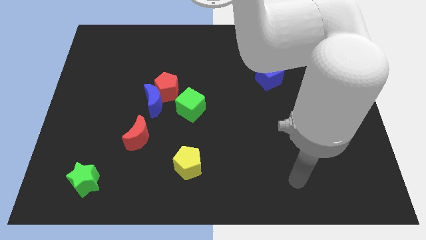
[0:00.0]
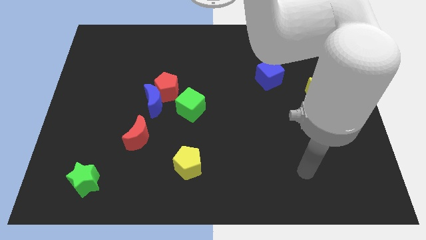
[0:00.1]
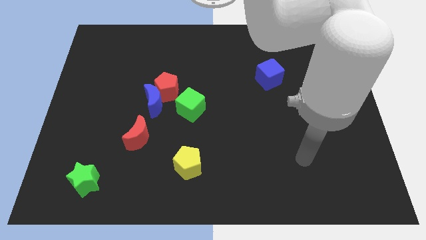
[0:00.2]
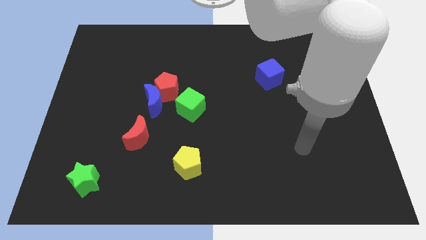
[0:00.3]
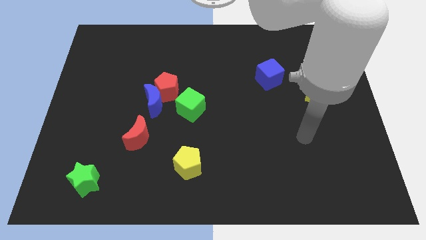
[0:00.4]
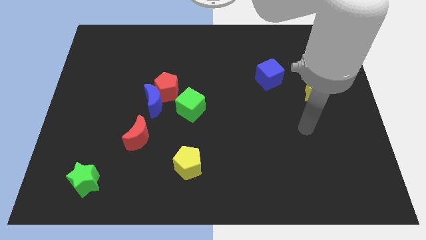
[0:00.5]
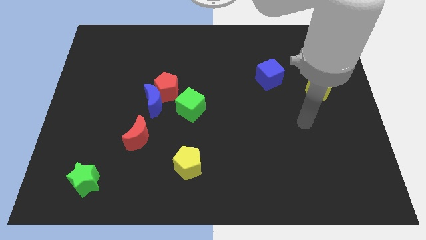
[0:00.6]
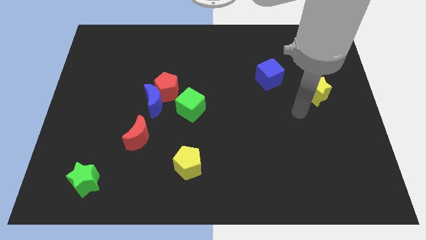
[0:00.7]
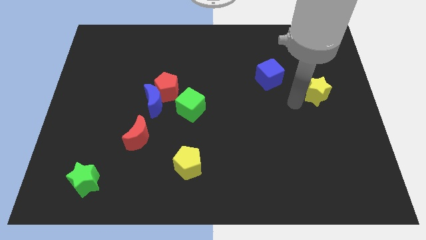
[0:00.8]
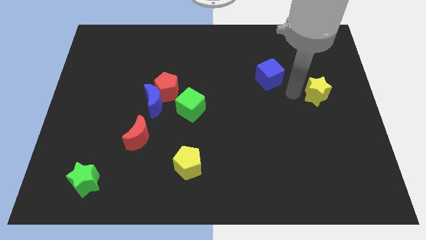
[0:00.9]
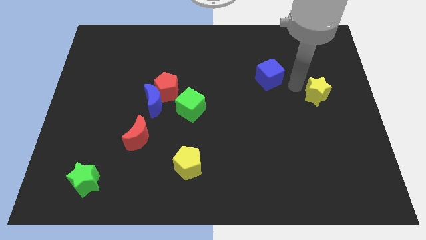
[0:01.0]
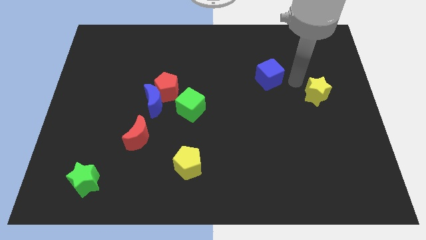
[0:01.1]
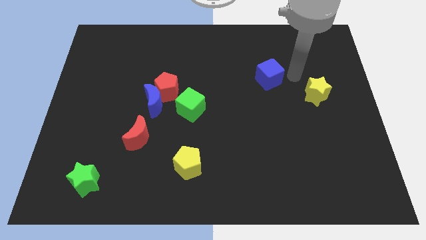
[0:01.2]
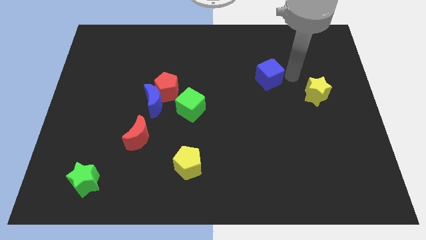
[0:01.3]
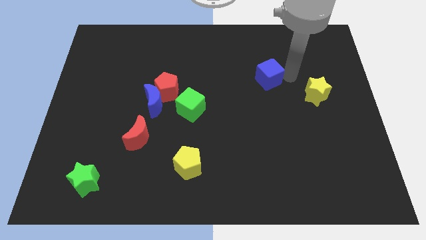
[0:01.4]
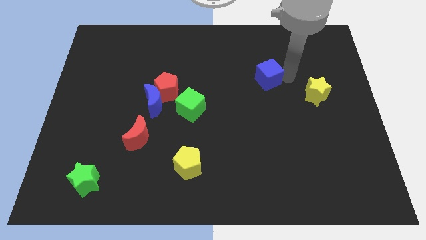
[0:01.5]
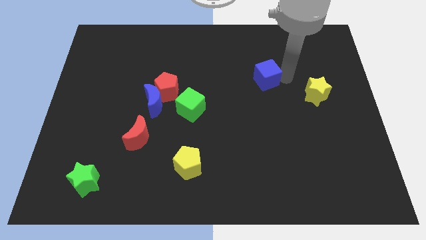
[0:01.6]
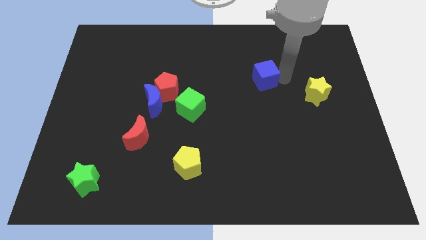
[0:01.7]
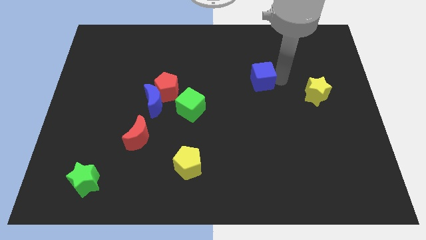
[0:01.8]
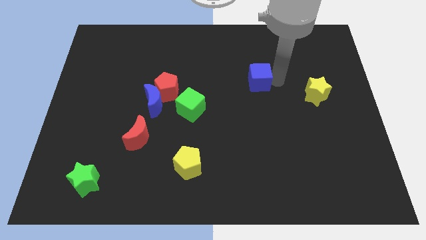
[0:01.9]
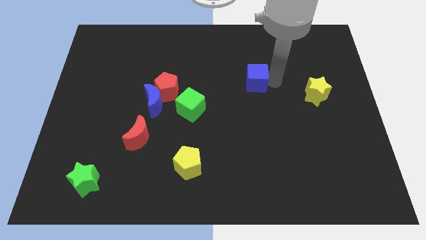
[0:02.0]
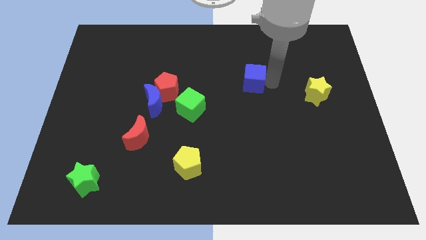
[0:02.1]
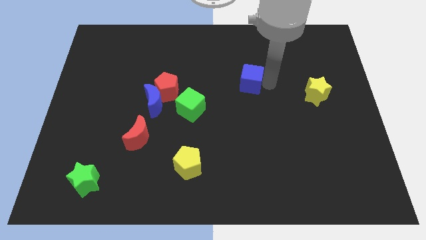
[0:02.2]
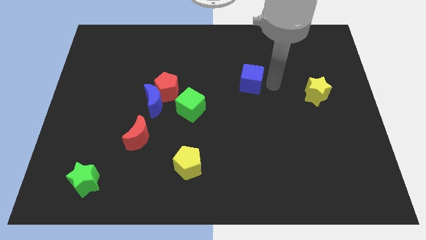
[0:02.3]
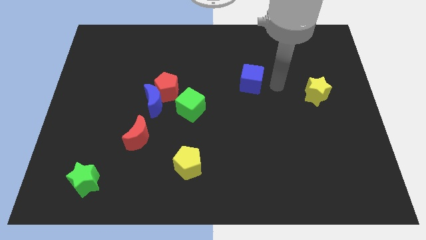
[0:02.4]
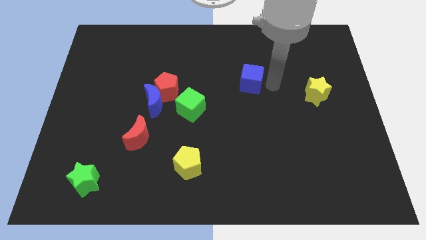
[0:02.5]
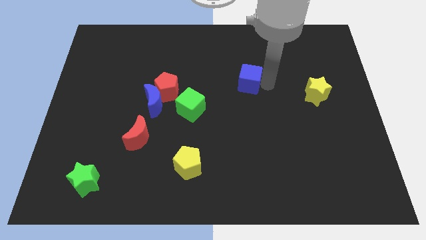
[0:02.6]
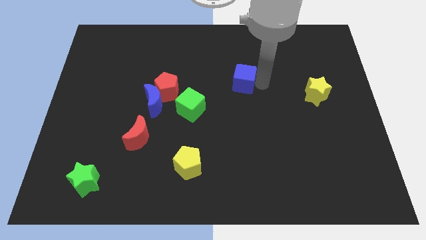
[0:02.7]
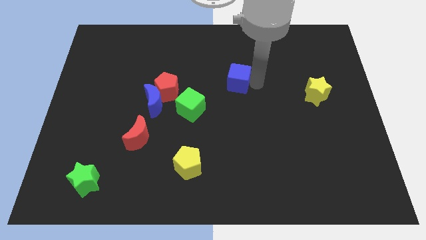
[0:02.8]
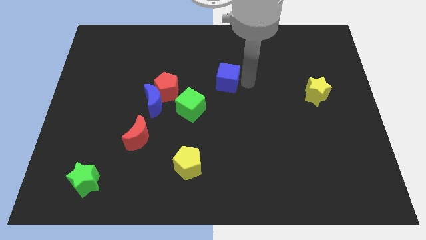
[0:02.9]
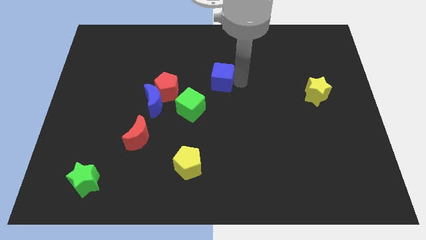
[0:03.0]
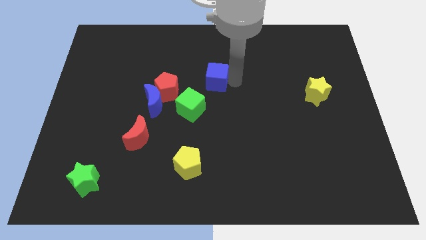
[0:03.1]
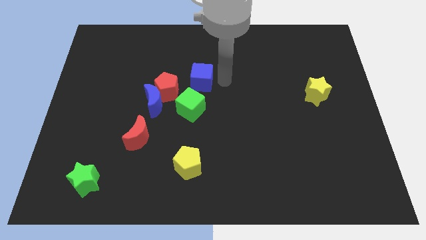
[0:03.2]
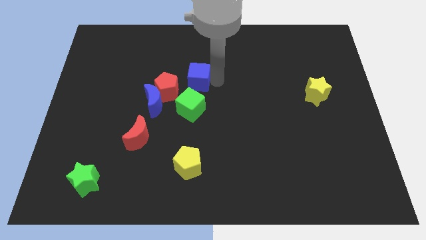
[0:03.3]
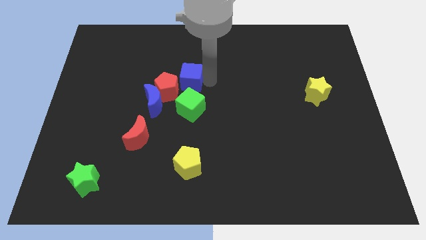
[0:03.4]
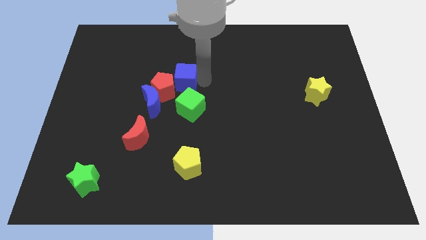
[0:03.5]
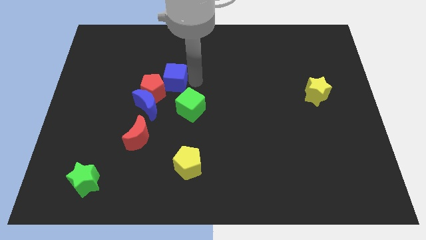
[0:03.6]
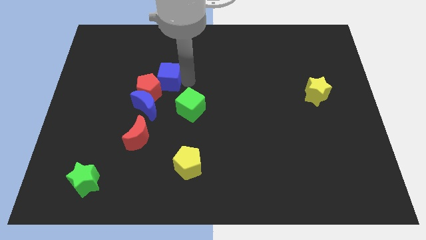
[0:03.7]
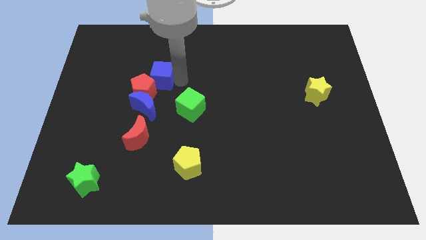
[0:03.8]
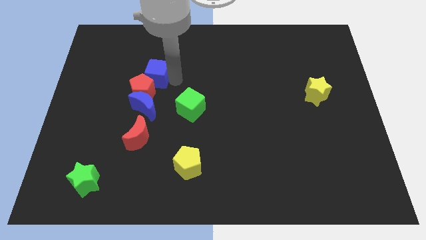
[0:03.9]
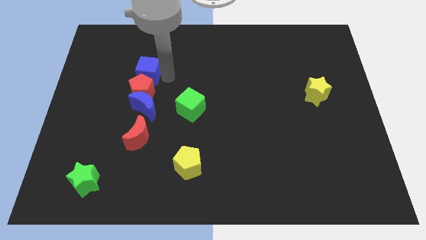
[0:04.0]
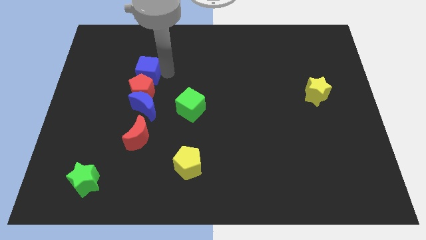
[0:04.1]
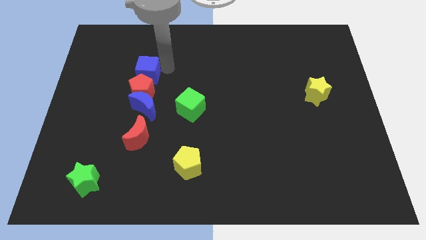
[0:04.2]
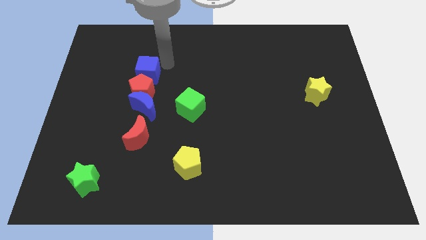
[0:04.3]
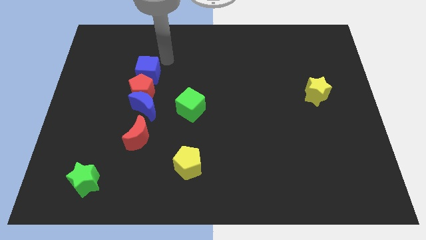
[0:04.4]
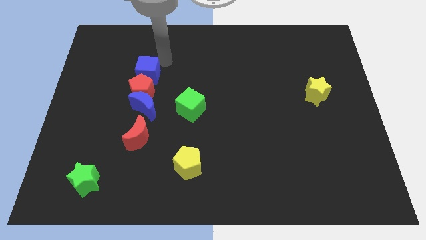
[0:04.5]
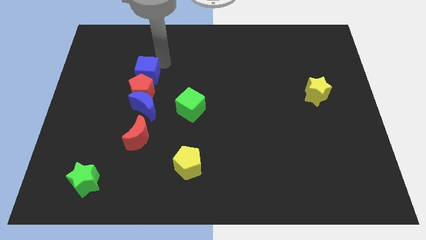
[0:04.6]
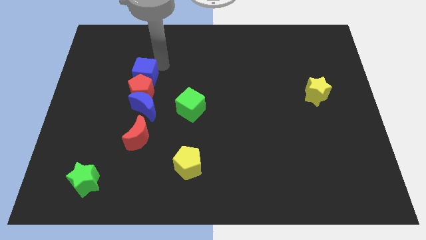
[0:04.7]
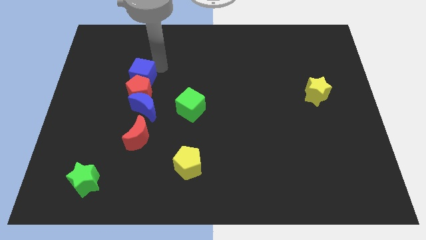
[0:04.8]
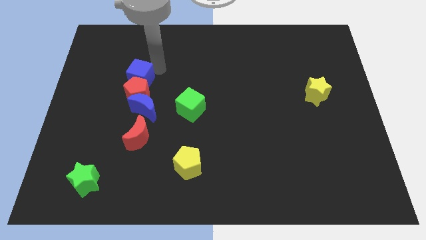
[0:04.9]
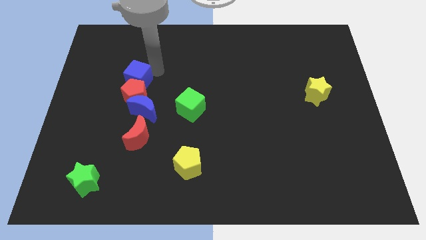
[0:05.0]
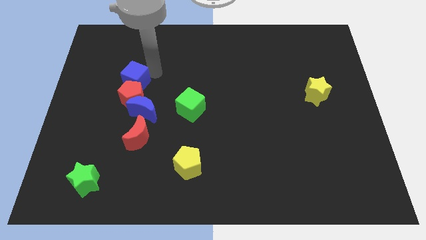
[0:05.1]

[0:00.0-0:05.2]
push the blue cube to the top left of the blue moon

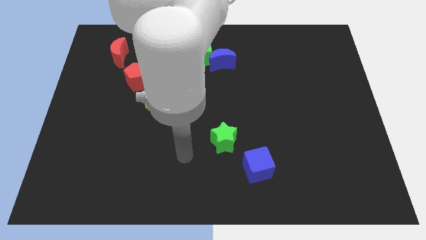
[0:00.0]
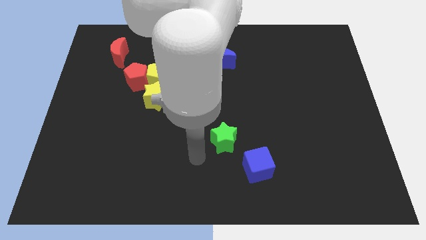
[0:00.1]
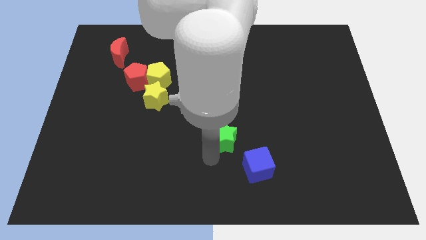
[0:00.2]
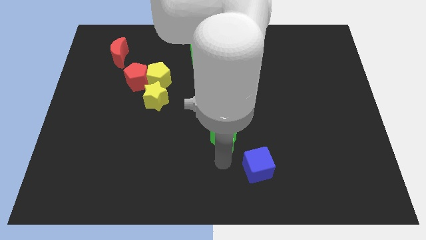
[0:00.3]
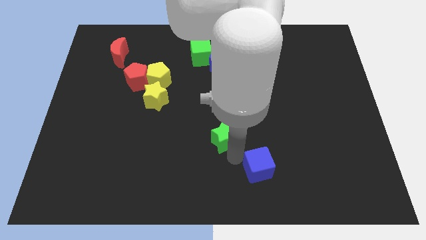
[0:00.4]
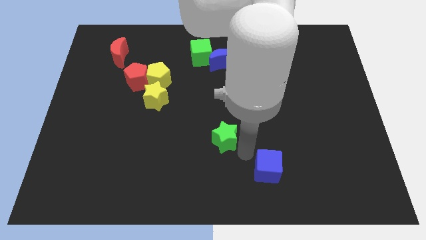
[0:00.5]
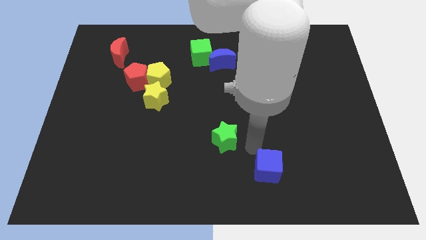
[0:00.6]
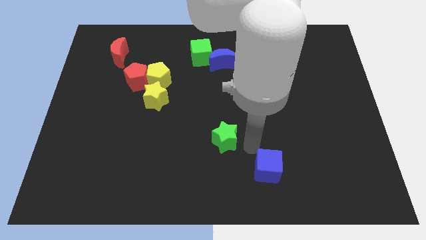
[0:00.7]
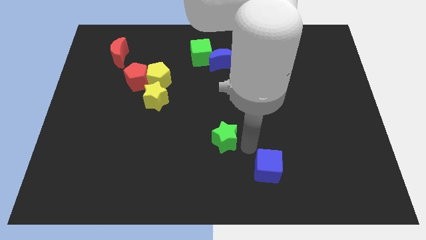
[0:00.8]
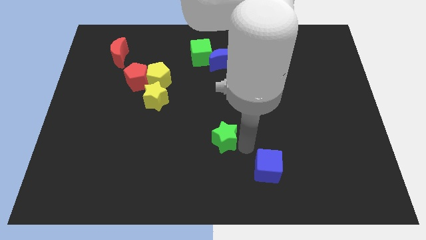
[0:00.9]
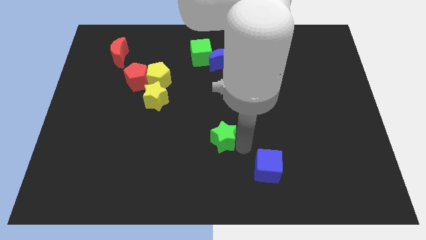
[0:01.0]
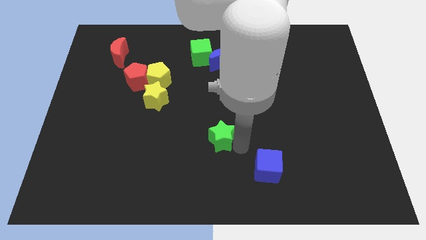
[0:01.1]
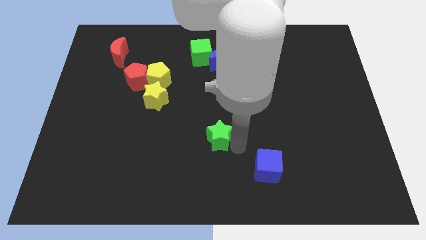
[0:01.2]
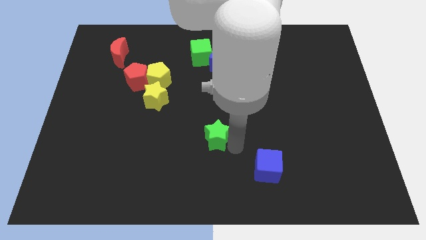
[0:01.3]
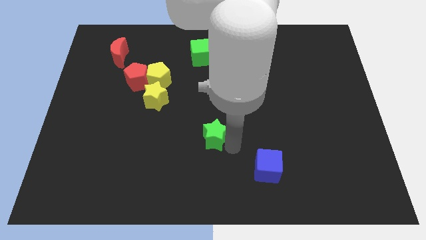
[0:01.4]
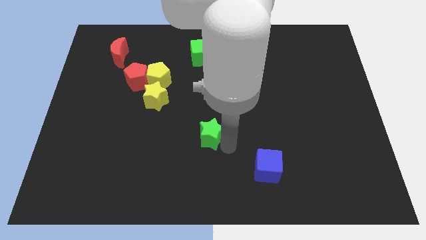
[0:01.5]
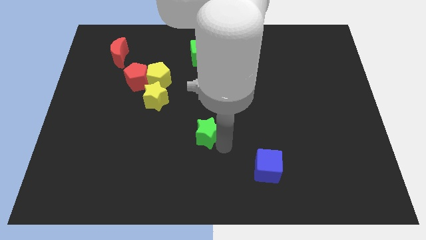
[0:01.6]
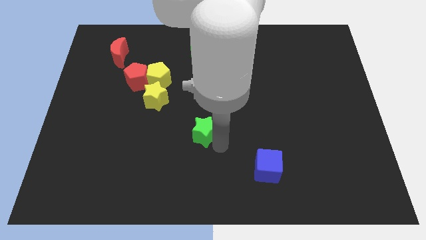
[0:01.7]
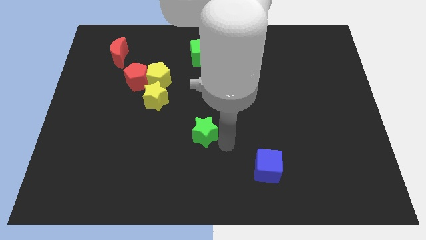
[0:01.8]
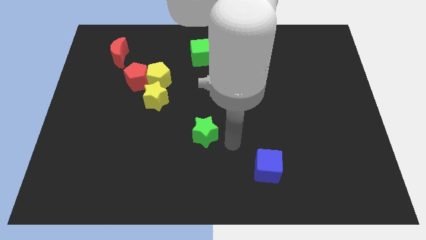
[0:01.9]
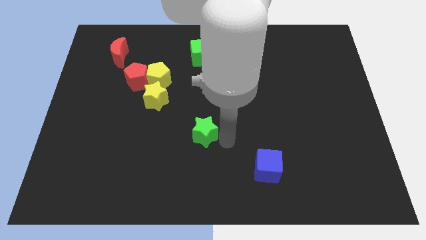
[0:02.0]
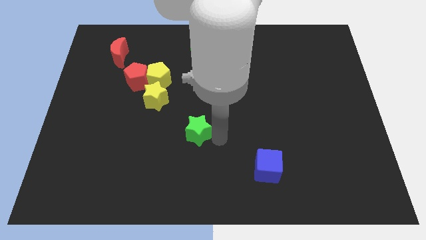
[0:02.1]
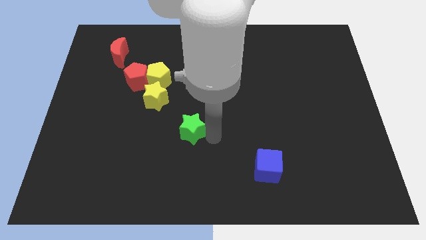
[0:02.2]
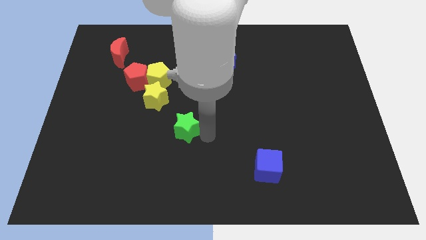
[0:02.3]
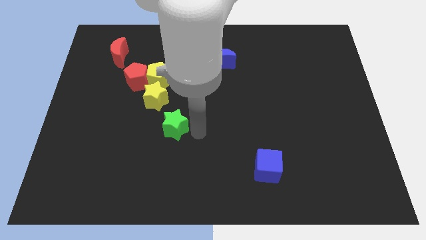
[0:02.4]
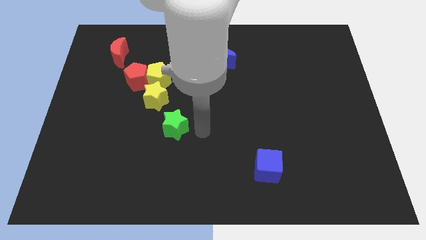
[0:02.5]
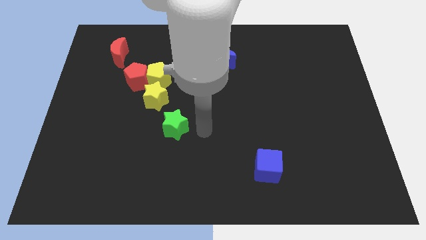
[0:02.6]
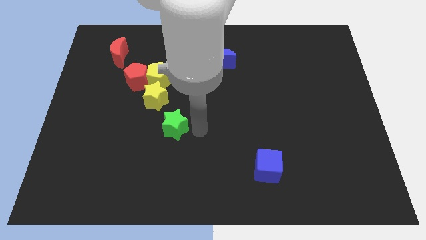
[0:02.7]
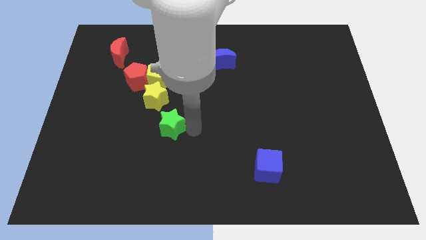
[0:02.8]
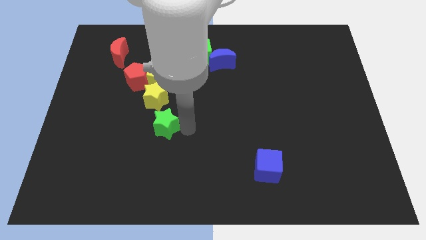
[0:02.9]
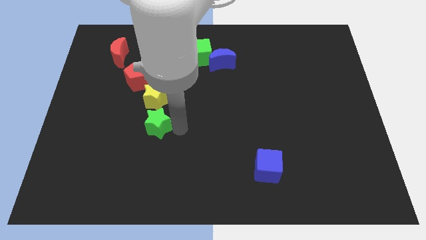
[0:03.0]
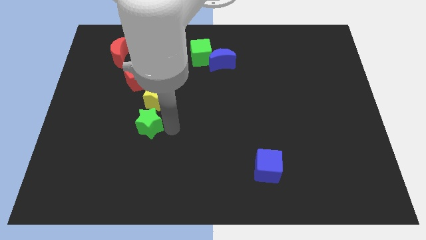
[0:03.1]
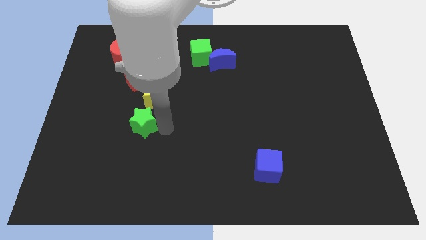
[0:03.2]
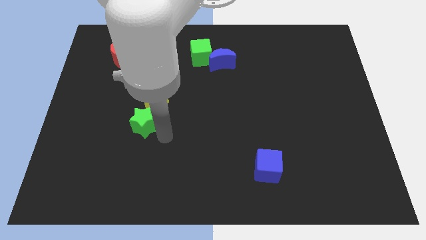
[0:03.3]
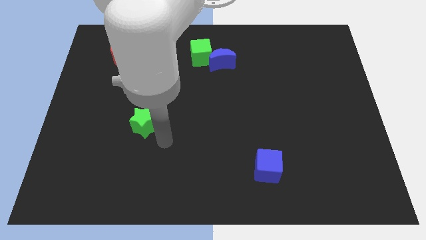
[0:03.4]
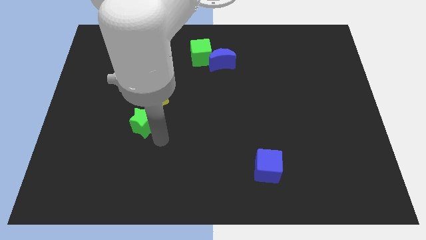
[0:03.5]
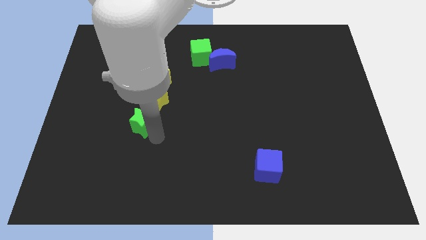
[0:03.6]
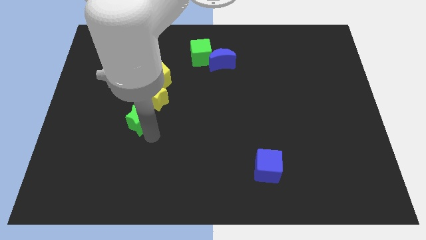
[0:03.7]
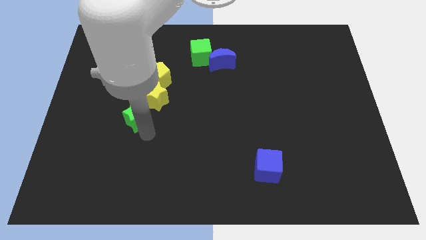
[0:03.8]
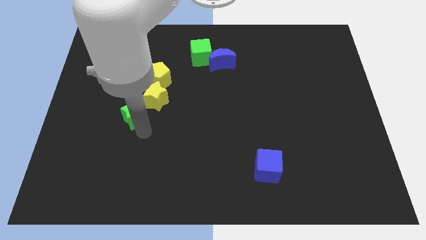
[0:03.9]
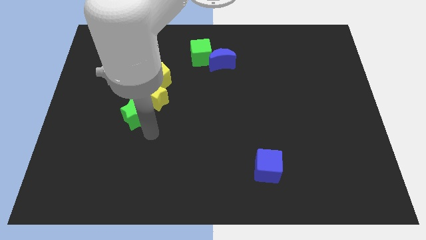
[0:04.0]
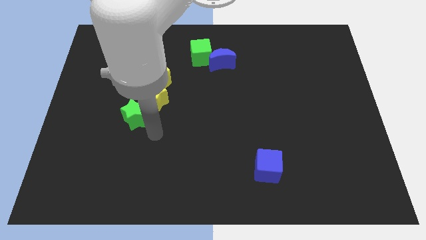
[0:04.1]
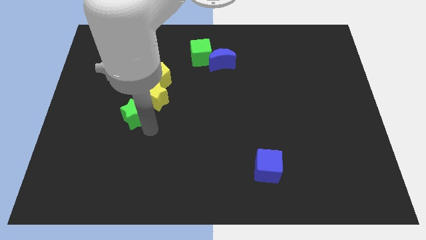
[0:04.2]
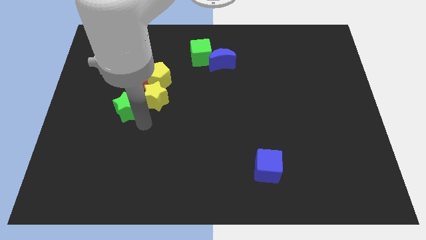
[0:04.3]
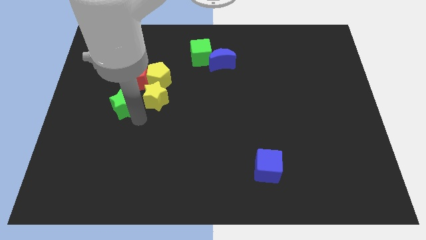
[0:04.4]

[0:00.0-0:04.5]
push the green star to the bottom left side of the red pentagon
